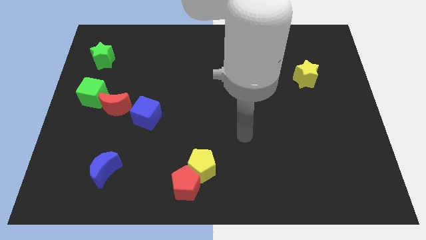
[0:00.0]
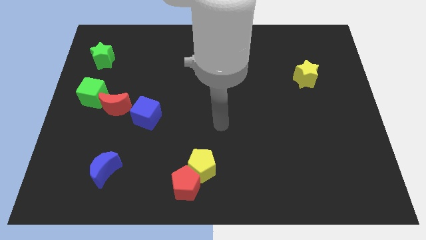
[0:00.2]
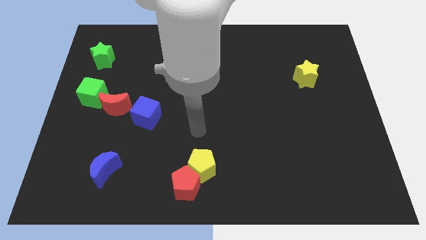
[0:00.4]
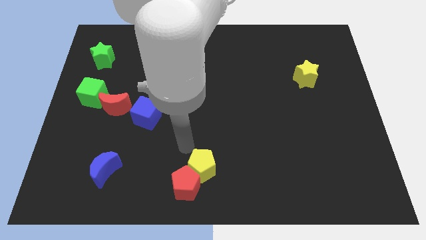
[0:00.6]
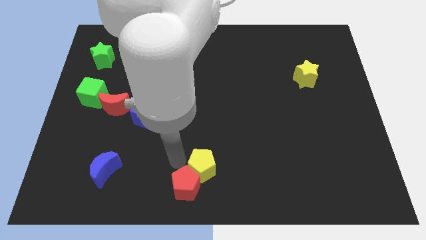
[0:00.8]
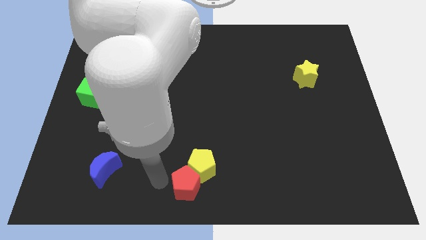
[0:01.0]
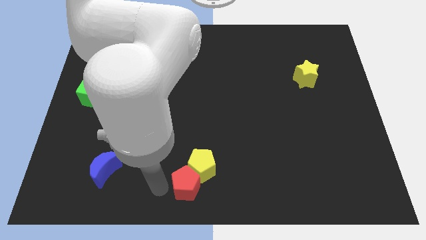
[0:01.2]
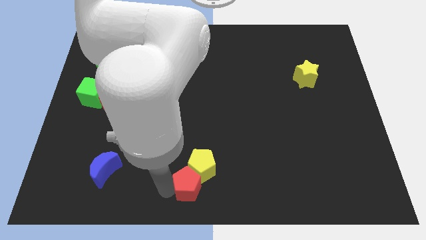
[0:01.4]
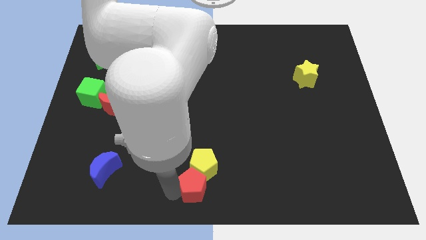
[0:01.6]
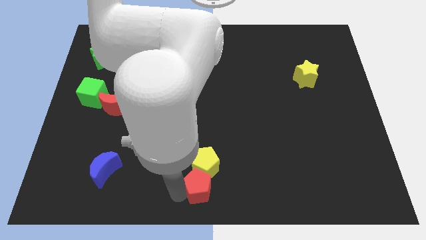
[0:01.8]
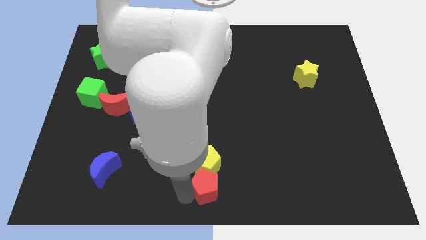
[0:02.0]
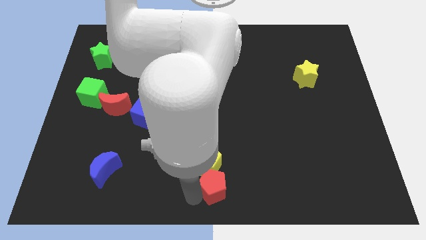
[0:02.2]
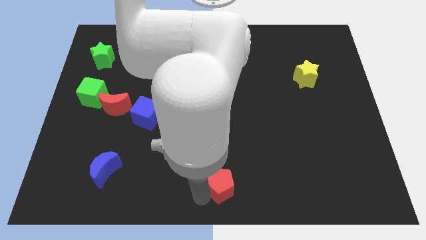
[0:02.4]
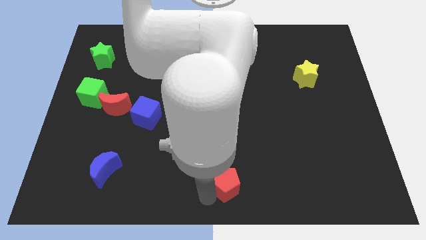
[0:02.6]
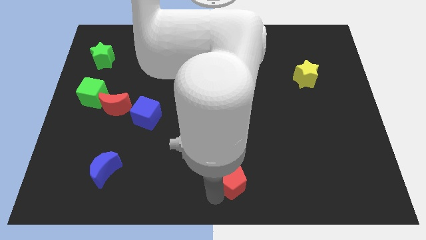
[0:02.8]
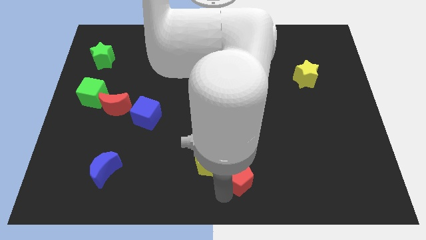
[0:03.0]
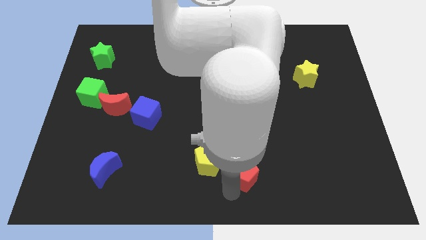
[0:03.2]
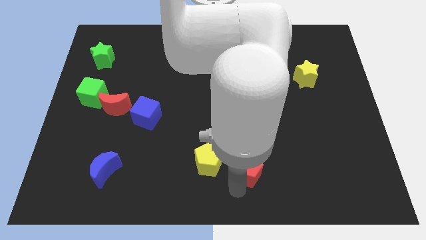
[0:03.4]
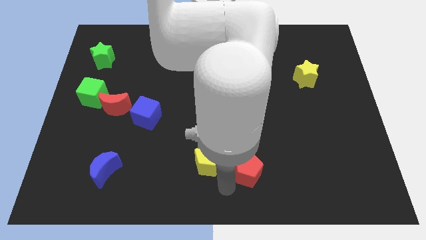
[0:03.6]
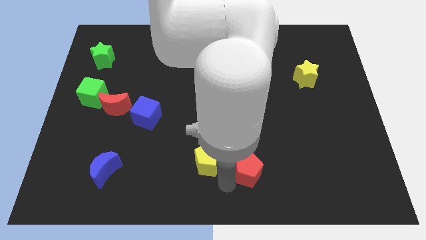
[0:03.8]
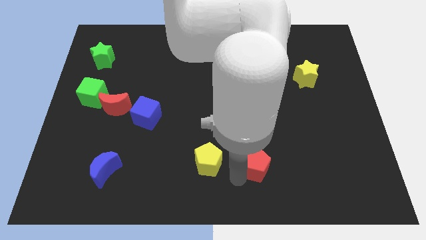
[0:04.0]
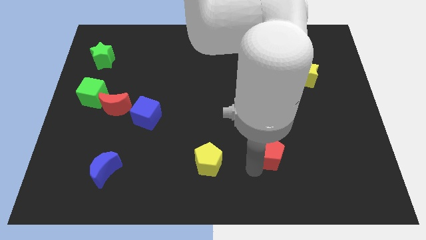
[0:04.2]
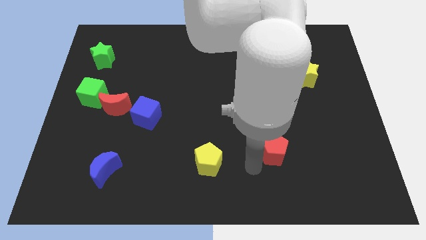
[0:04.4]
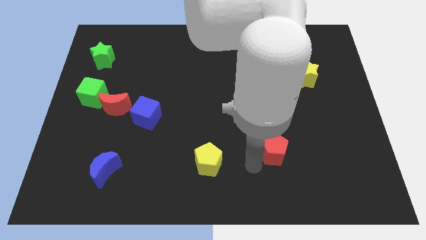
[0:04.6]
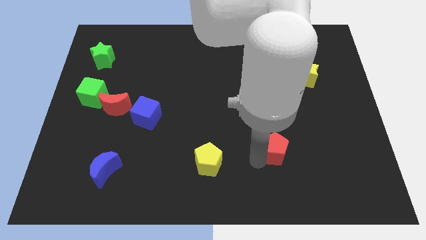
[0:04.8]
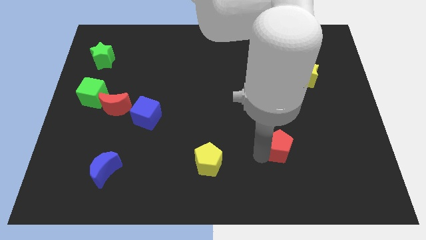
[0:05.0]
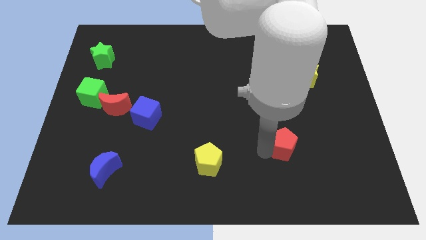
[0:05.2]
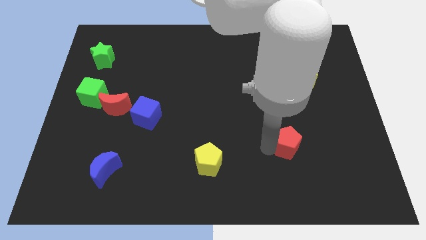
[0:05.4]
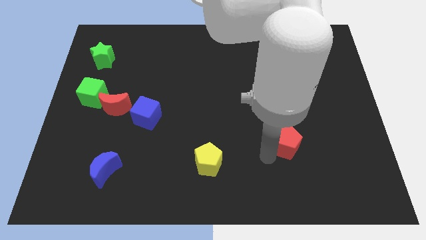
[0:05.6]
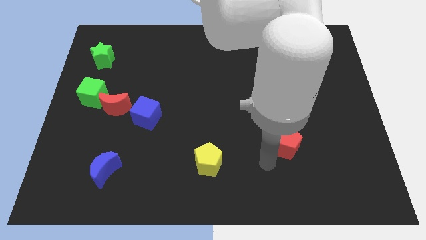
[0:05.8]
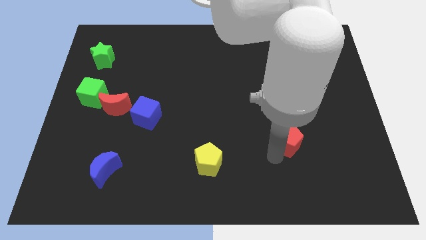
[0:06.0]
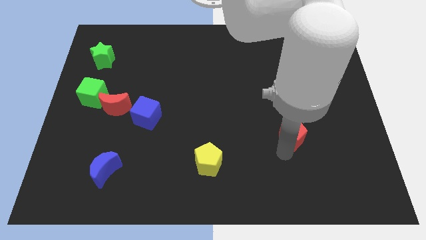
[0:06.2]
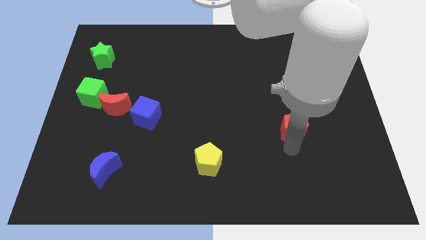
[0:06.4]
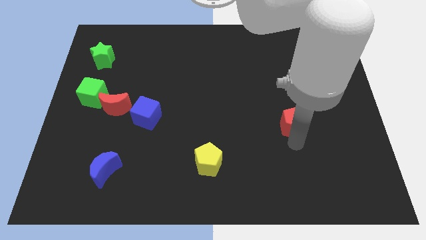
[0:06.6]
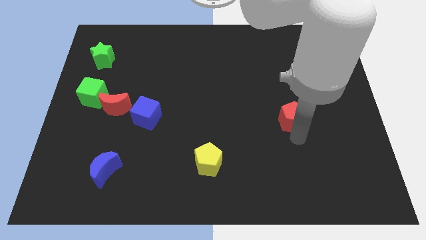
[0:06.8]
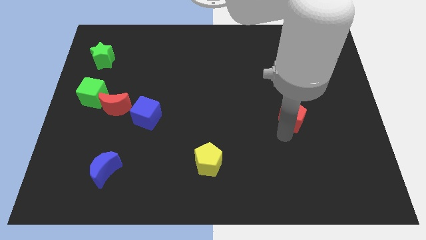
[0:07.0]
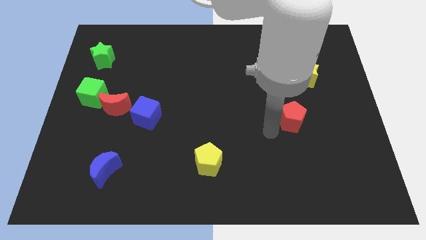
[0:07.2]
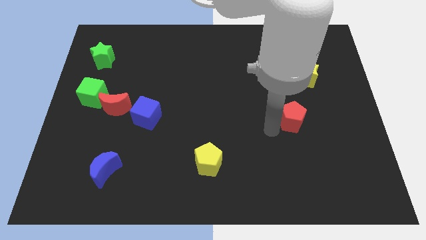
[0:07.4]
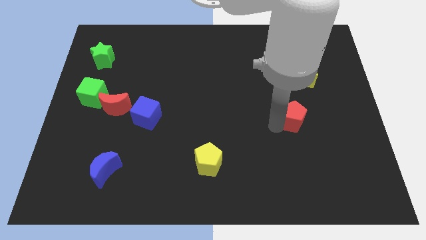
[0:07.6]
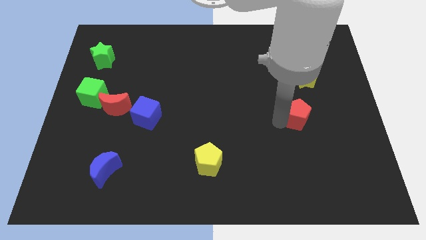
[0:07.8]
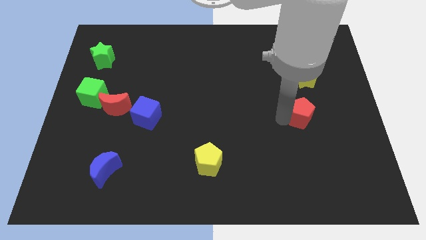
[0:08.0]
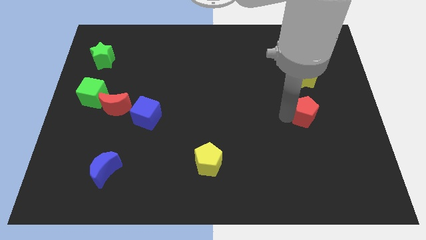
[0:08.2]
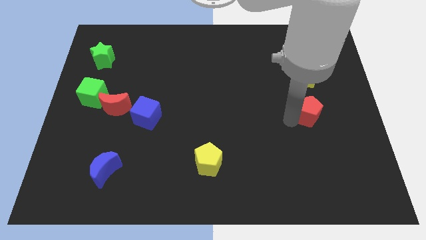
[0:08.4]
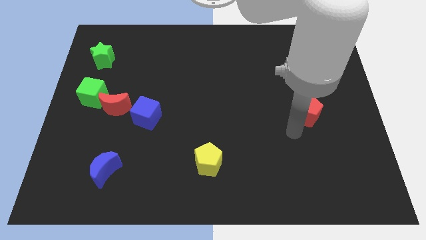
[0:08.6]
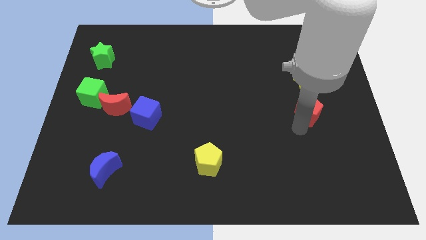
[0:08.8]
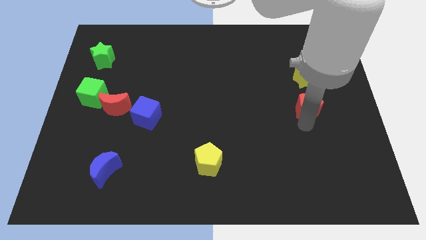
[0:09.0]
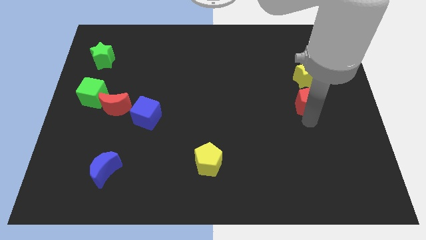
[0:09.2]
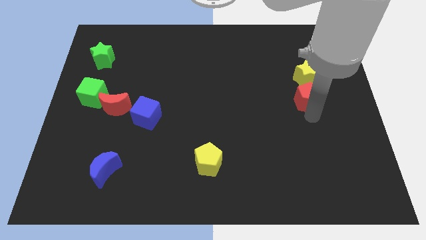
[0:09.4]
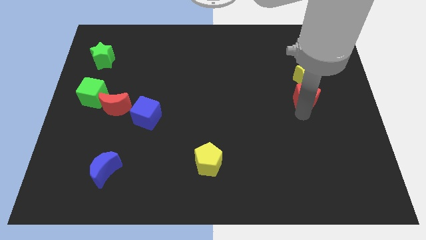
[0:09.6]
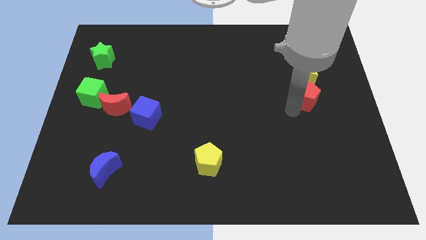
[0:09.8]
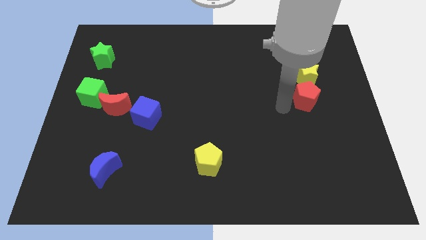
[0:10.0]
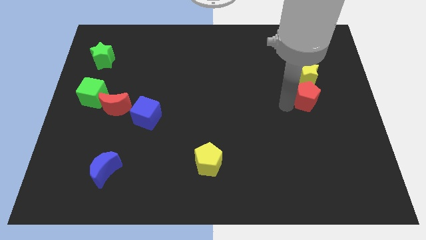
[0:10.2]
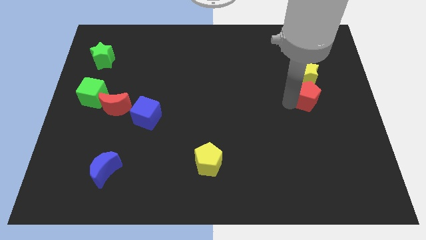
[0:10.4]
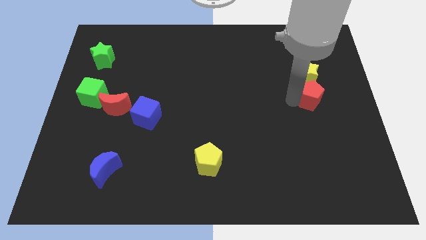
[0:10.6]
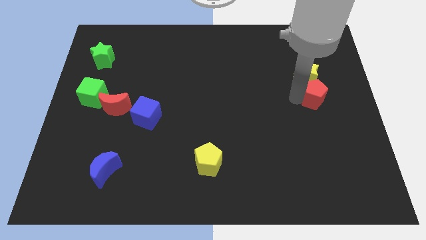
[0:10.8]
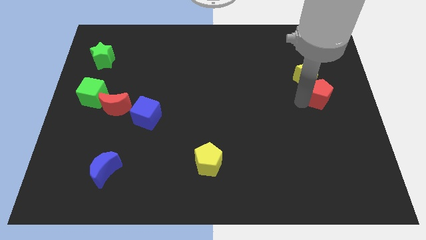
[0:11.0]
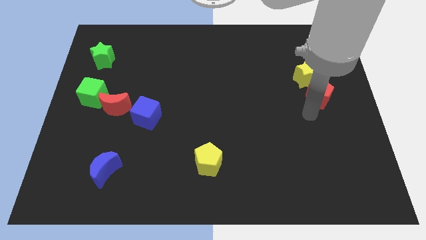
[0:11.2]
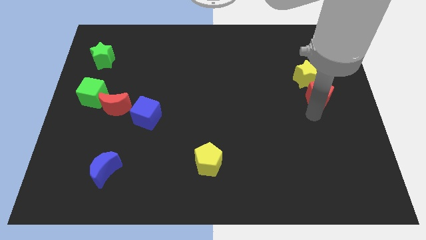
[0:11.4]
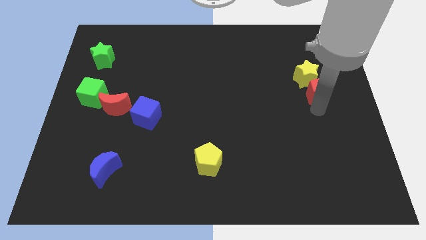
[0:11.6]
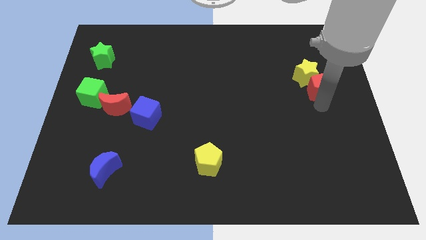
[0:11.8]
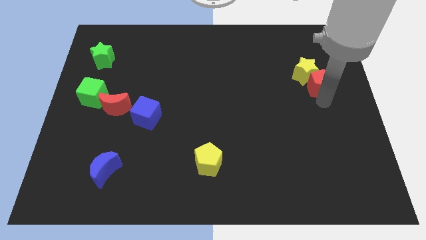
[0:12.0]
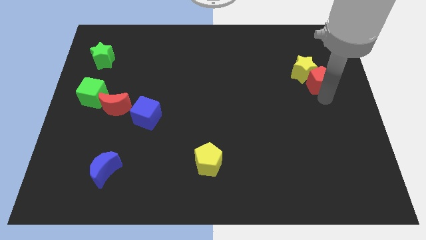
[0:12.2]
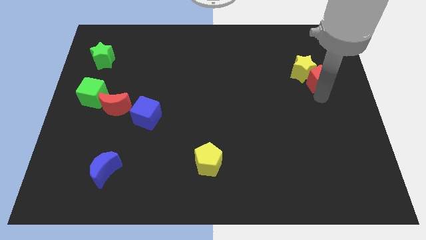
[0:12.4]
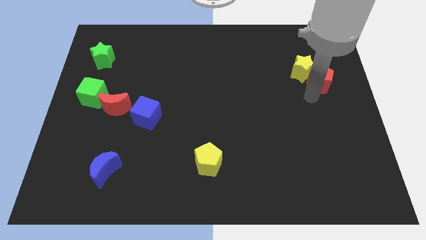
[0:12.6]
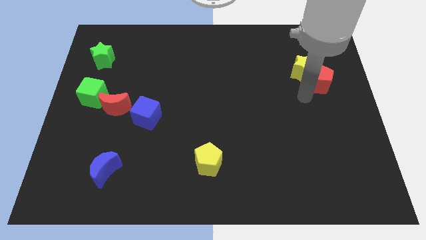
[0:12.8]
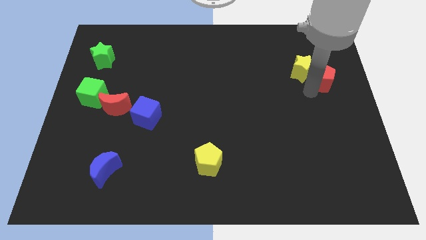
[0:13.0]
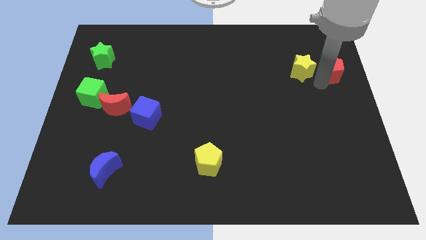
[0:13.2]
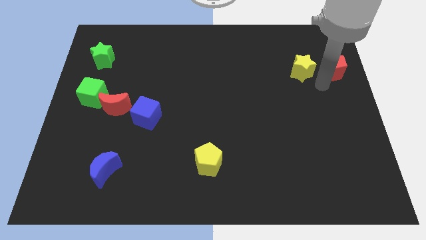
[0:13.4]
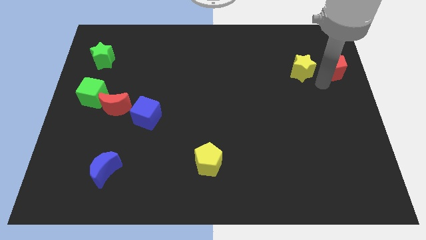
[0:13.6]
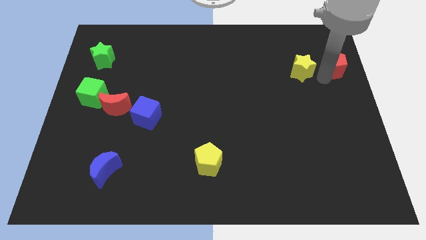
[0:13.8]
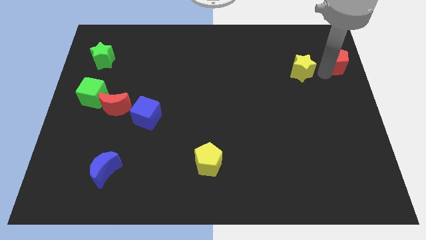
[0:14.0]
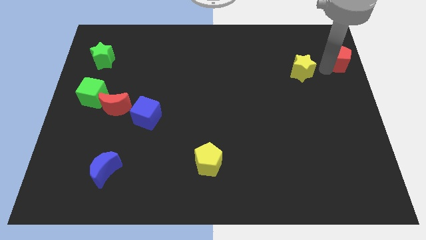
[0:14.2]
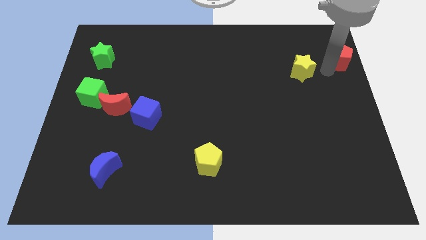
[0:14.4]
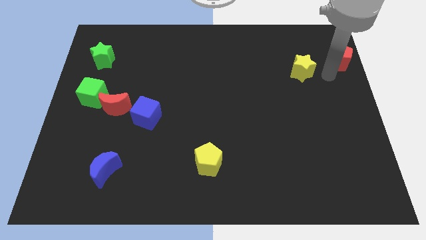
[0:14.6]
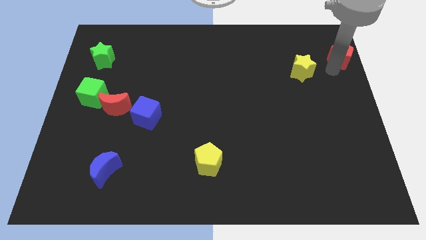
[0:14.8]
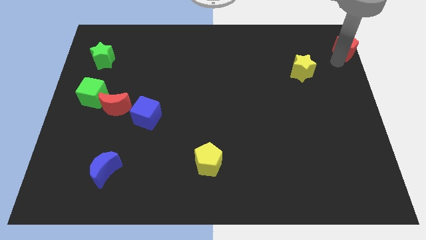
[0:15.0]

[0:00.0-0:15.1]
push the red pentagon to the upper right corner
